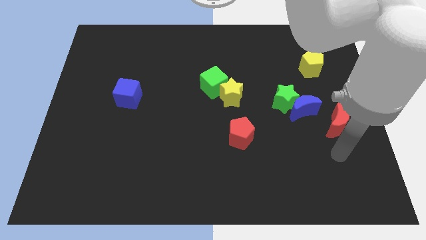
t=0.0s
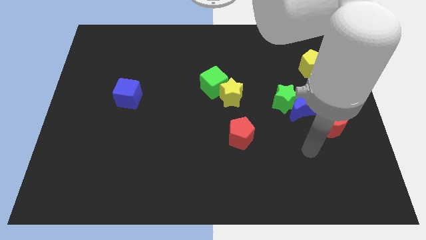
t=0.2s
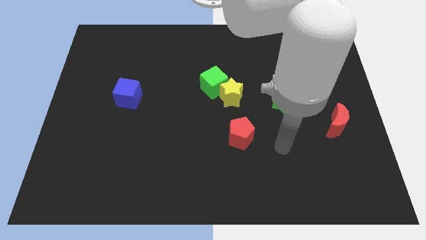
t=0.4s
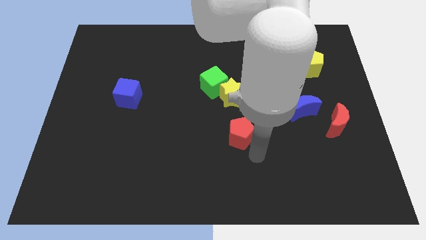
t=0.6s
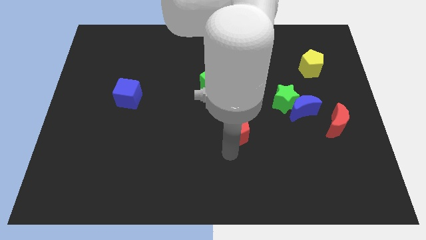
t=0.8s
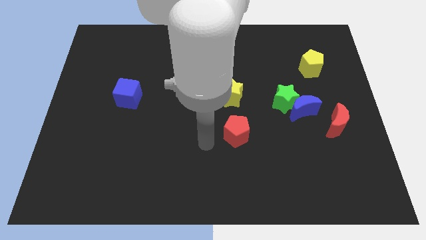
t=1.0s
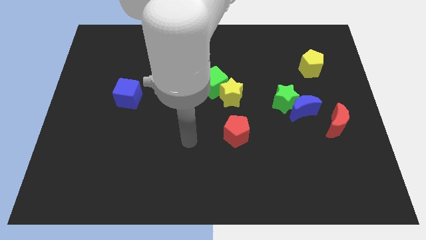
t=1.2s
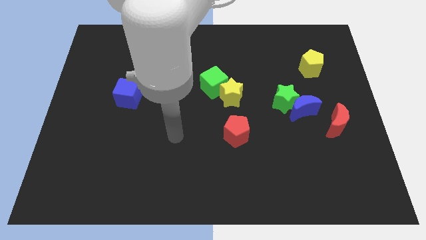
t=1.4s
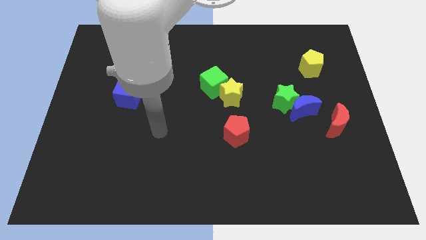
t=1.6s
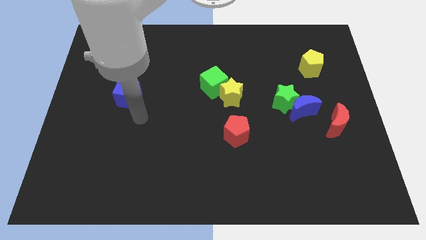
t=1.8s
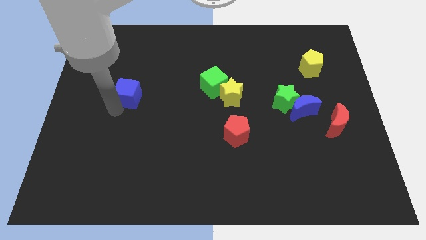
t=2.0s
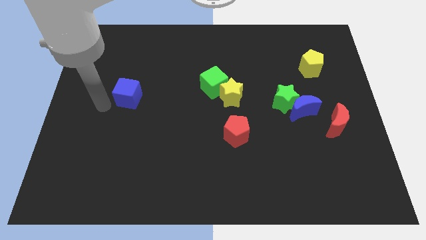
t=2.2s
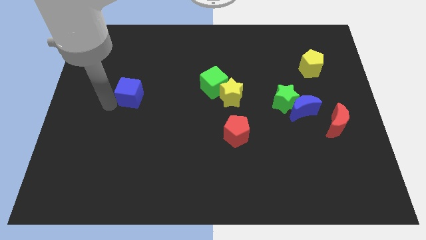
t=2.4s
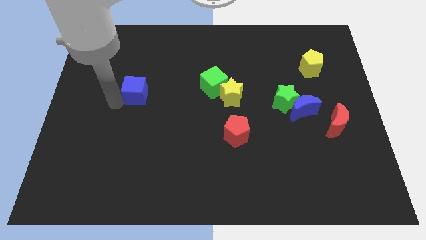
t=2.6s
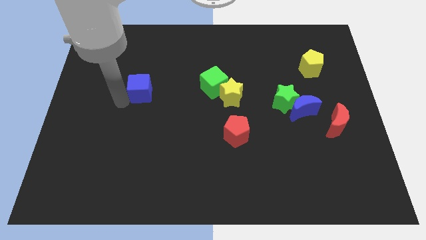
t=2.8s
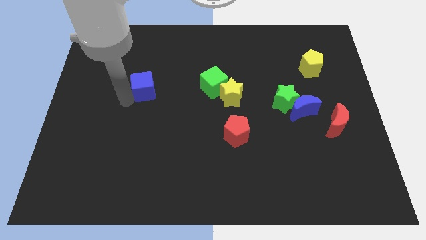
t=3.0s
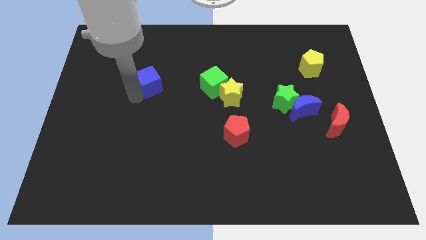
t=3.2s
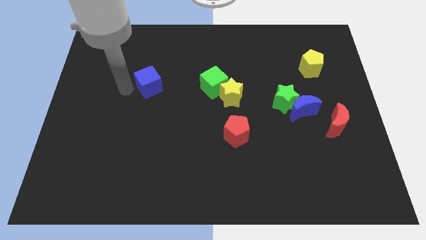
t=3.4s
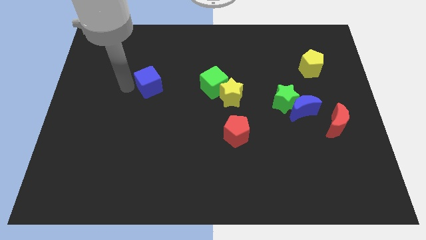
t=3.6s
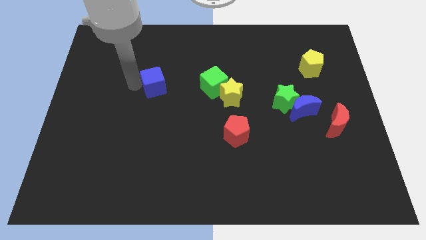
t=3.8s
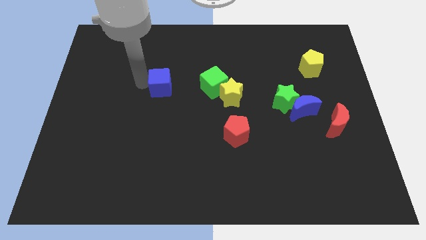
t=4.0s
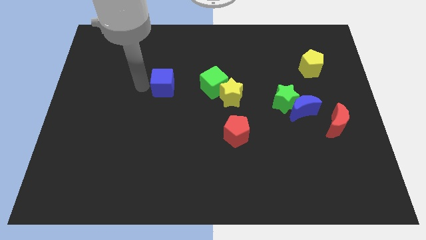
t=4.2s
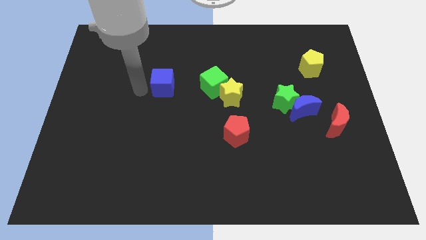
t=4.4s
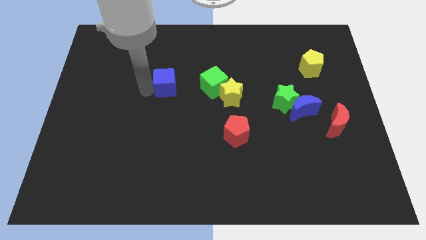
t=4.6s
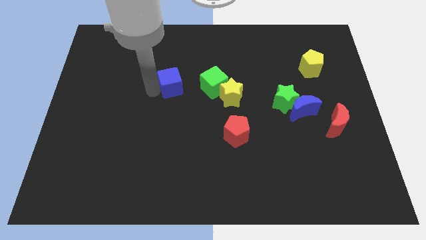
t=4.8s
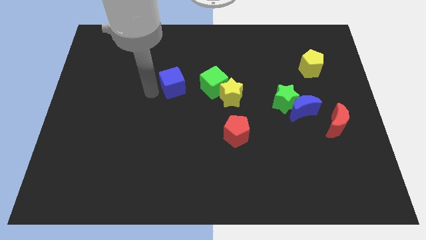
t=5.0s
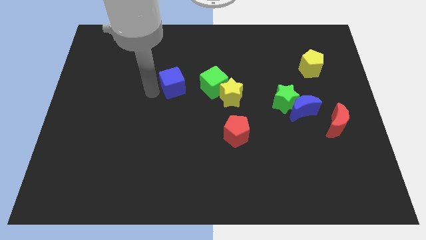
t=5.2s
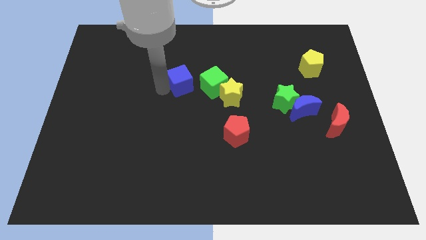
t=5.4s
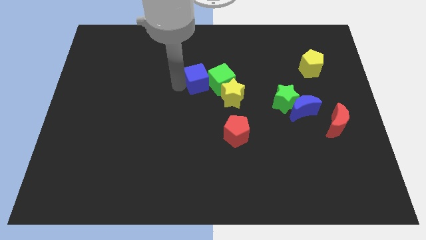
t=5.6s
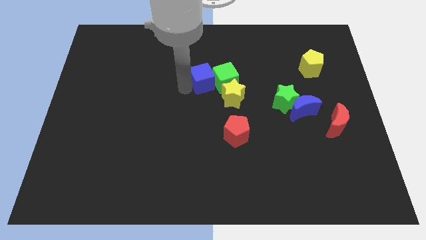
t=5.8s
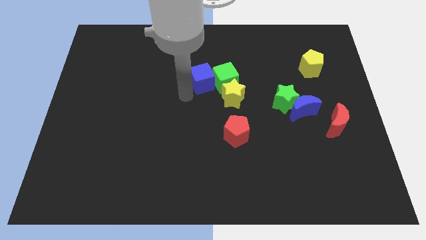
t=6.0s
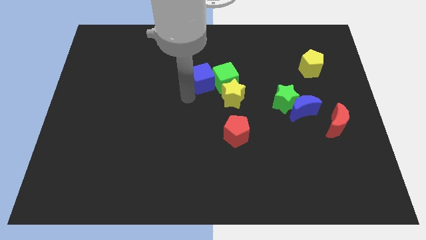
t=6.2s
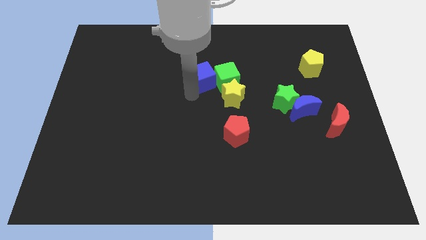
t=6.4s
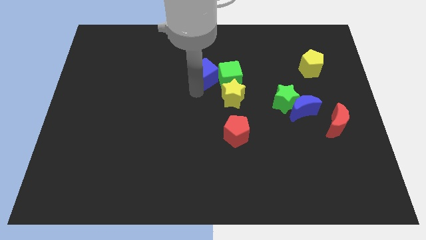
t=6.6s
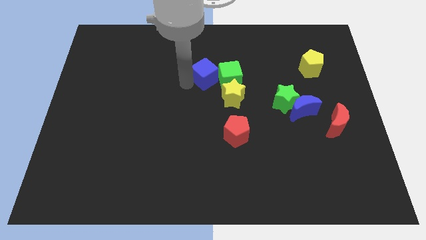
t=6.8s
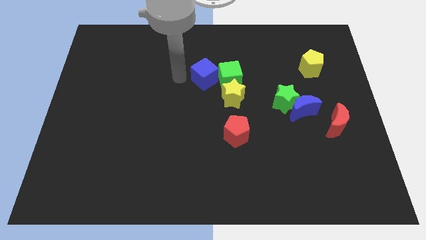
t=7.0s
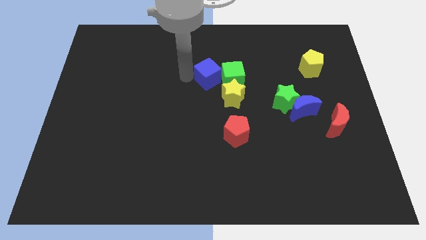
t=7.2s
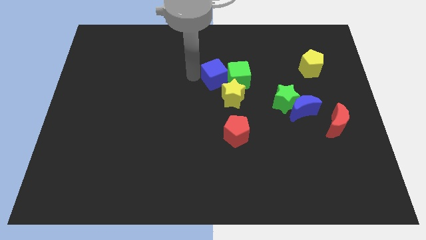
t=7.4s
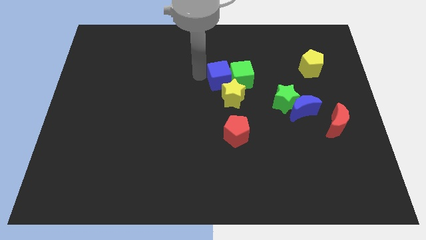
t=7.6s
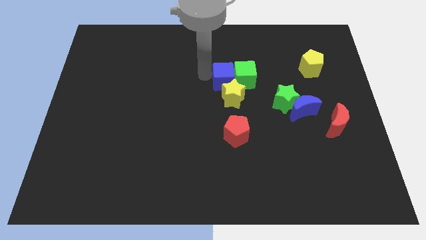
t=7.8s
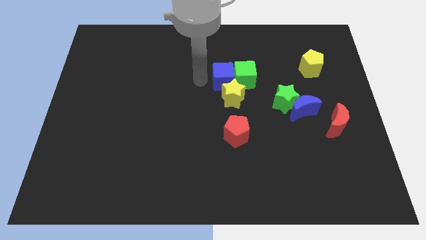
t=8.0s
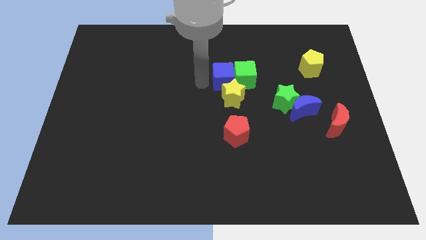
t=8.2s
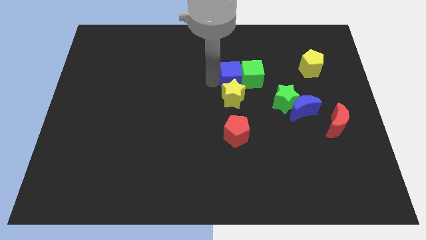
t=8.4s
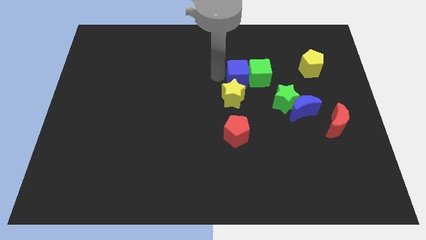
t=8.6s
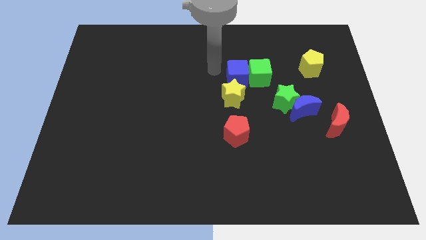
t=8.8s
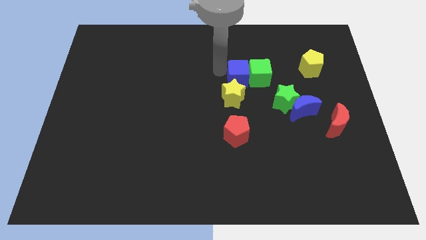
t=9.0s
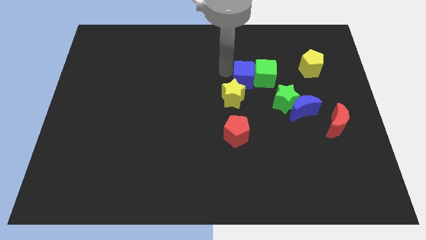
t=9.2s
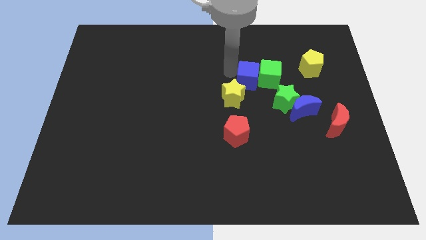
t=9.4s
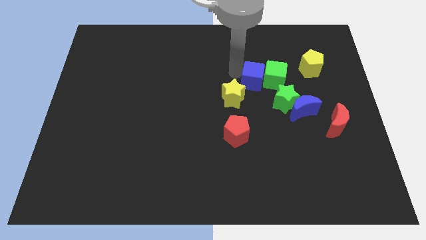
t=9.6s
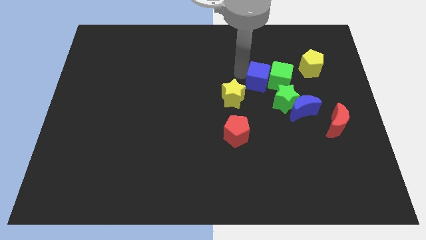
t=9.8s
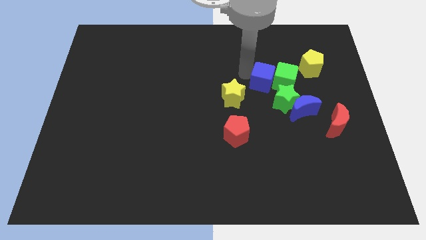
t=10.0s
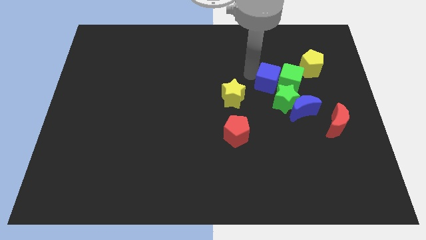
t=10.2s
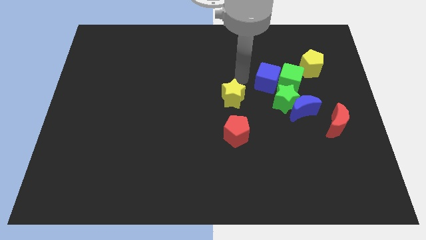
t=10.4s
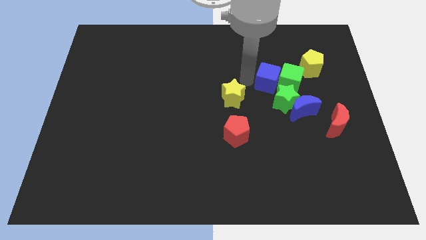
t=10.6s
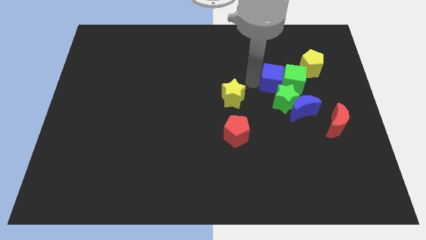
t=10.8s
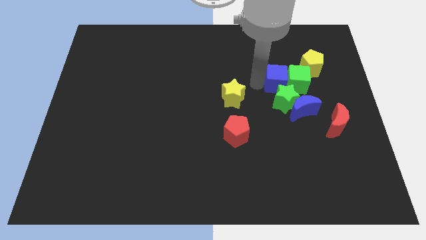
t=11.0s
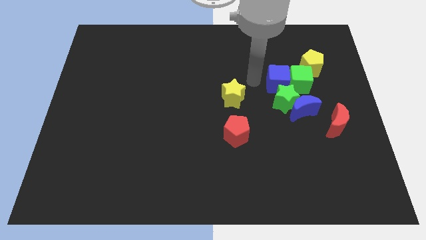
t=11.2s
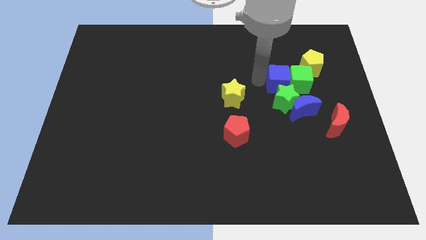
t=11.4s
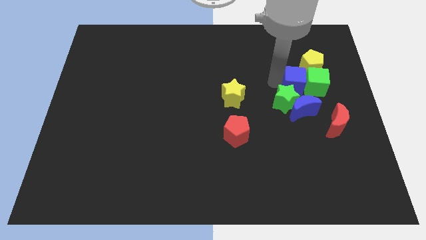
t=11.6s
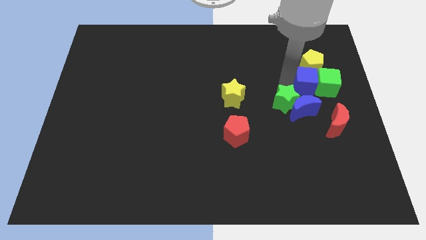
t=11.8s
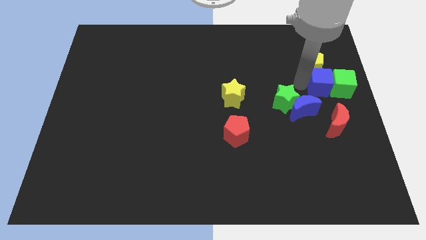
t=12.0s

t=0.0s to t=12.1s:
move the blue cube to the center right
